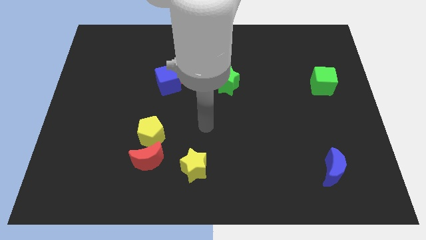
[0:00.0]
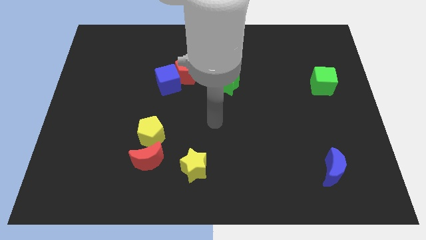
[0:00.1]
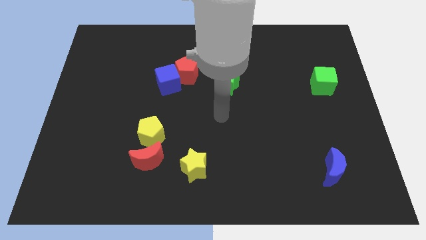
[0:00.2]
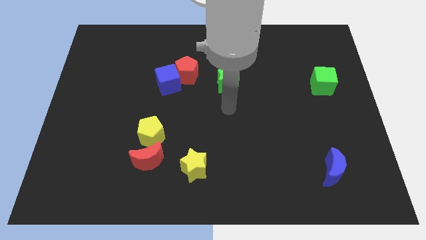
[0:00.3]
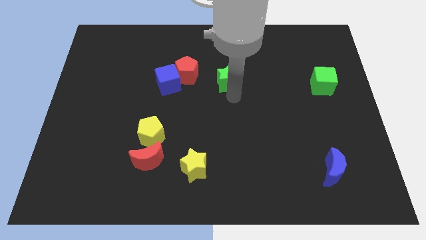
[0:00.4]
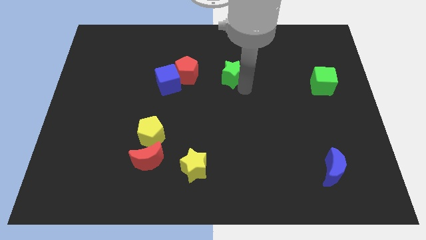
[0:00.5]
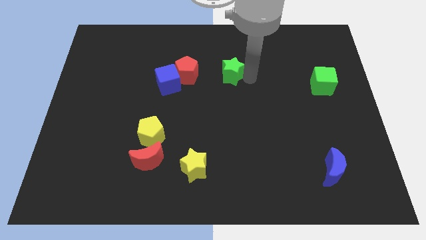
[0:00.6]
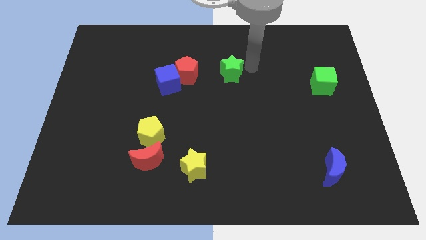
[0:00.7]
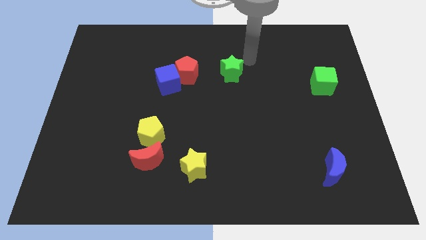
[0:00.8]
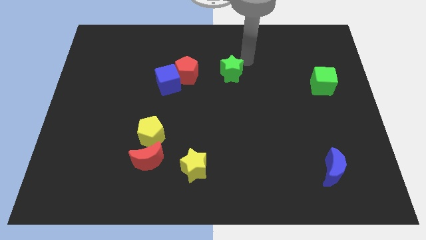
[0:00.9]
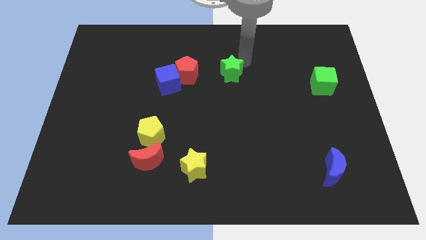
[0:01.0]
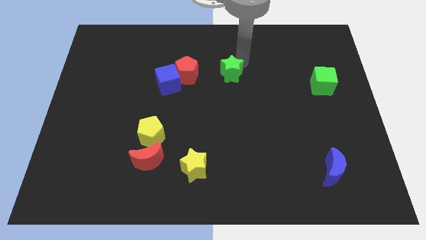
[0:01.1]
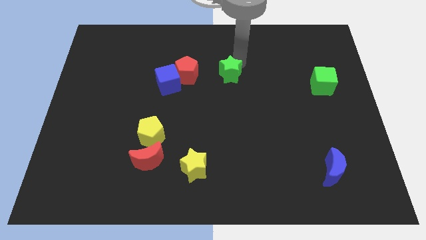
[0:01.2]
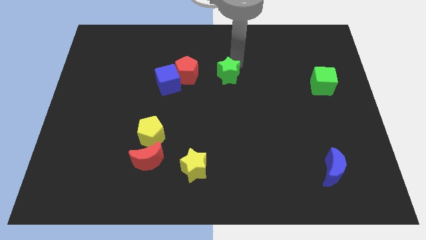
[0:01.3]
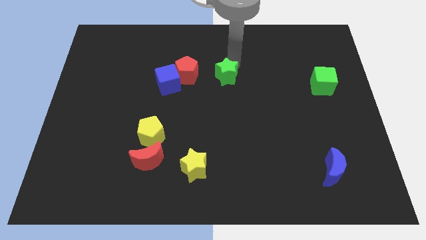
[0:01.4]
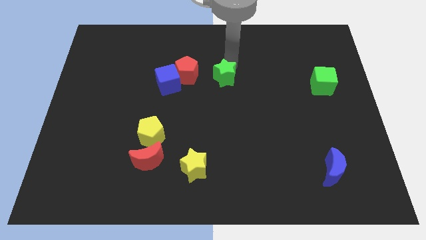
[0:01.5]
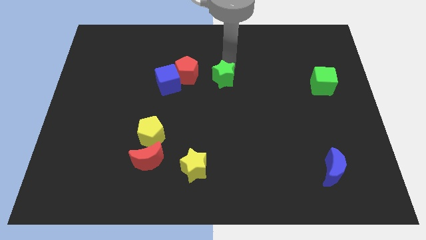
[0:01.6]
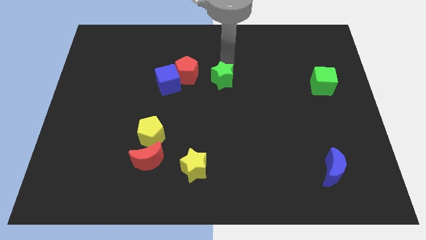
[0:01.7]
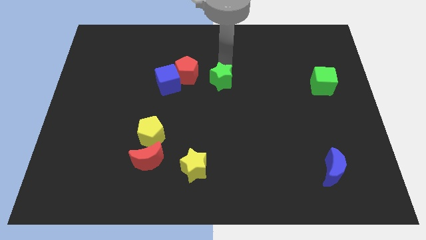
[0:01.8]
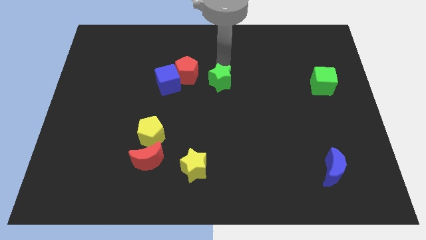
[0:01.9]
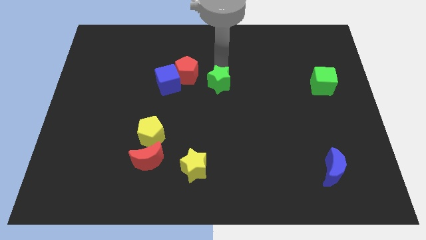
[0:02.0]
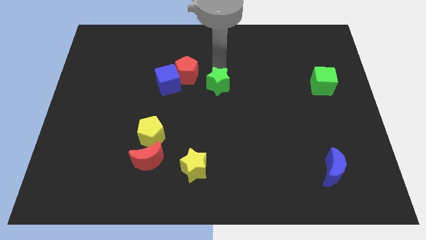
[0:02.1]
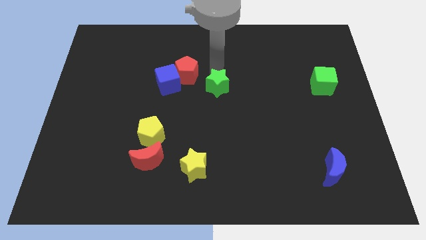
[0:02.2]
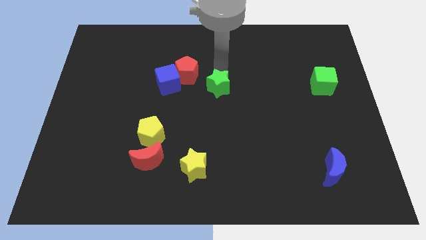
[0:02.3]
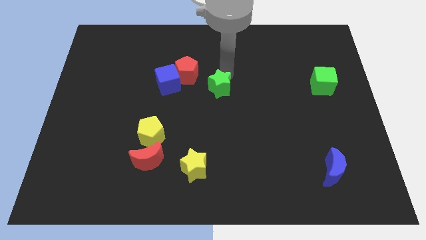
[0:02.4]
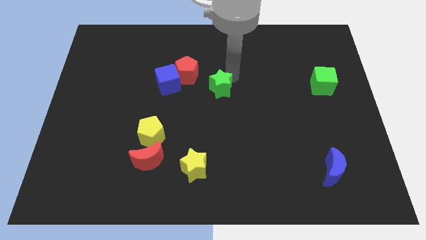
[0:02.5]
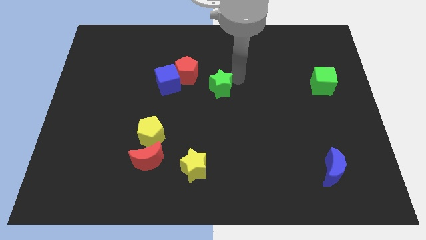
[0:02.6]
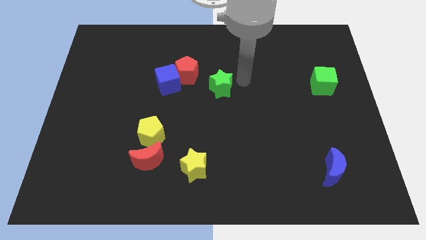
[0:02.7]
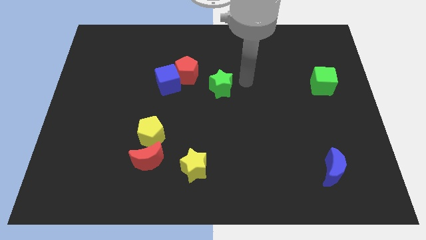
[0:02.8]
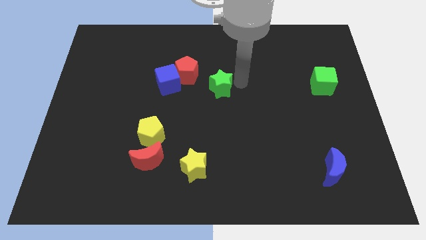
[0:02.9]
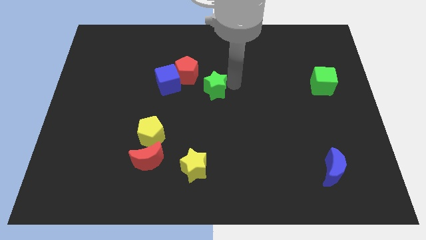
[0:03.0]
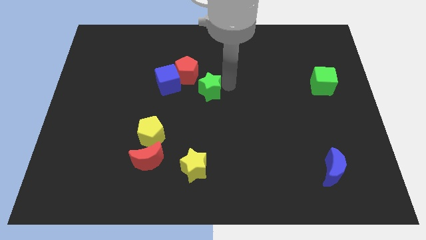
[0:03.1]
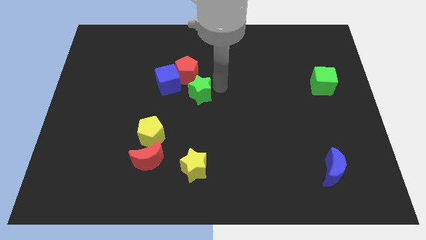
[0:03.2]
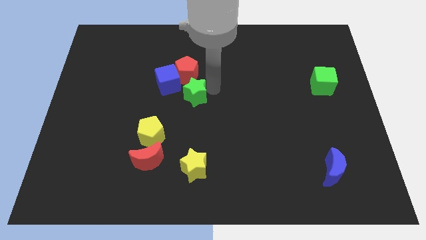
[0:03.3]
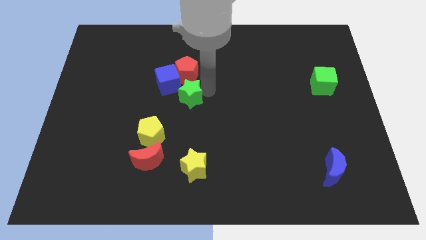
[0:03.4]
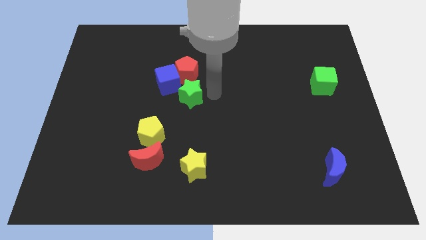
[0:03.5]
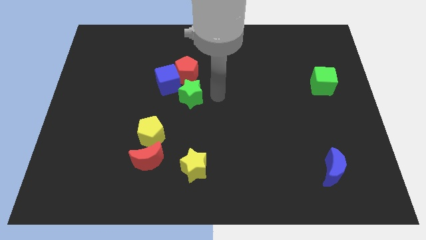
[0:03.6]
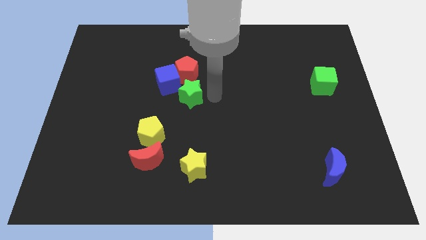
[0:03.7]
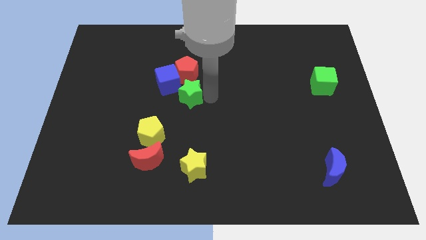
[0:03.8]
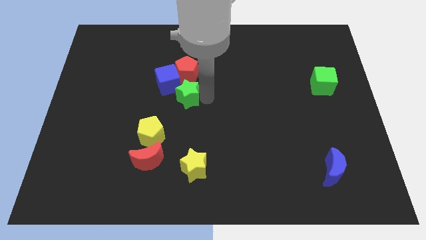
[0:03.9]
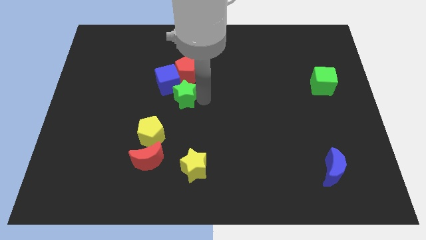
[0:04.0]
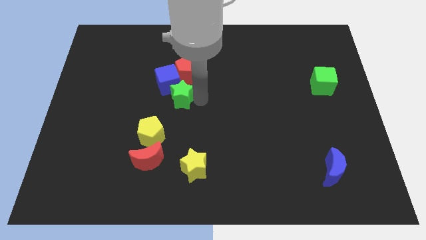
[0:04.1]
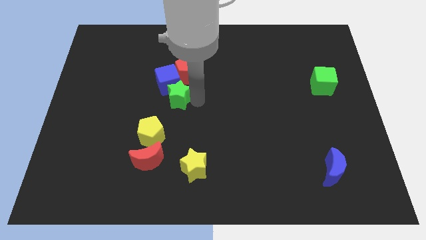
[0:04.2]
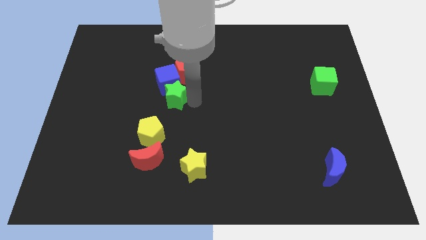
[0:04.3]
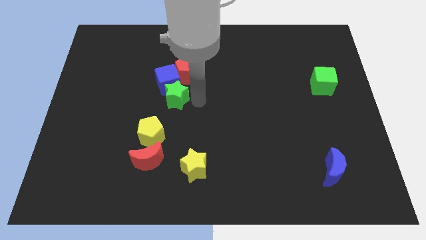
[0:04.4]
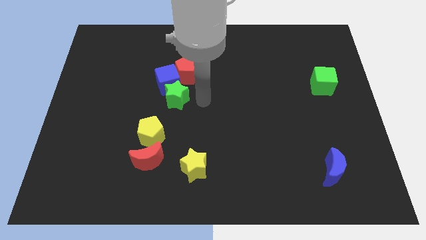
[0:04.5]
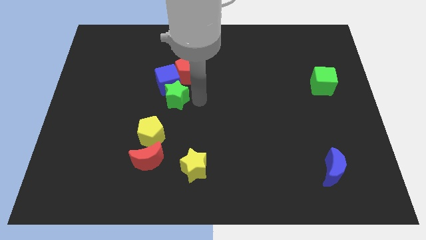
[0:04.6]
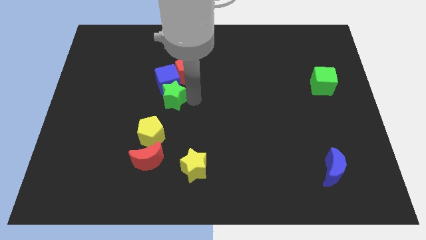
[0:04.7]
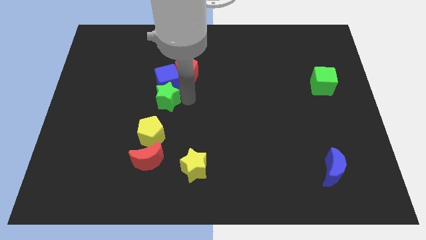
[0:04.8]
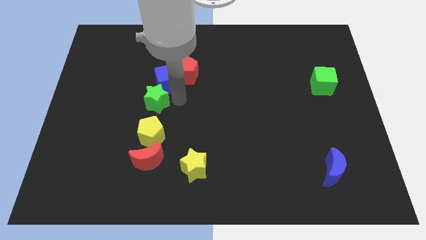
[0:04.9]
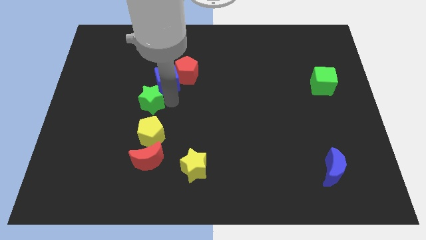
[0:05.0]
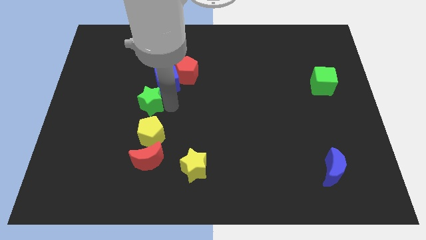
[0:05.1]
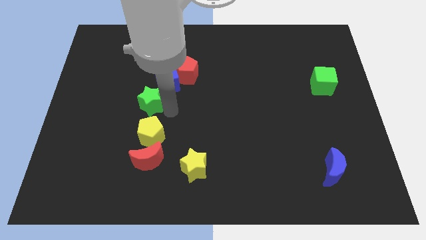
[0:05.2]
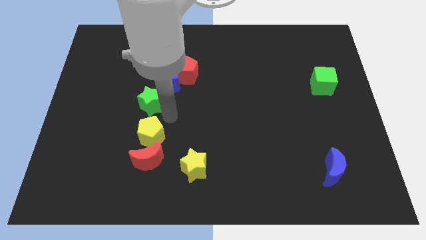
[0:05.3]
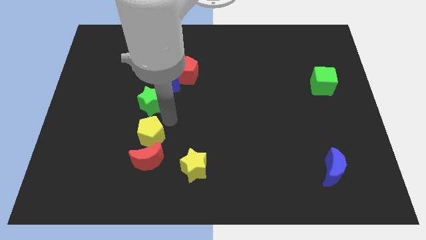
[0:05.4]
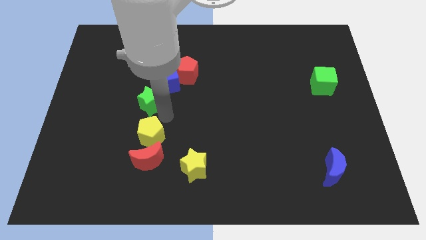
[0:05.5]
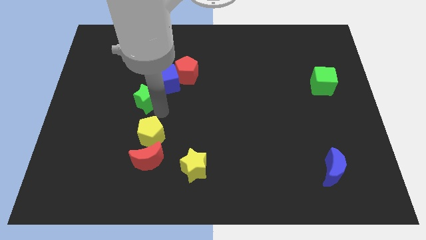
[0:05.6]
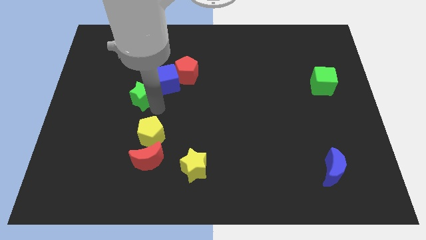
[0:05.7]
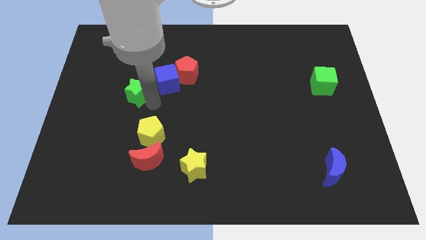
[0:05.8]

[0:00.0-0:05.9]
push the green star to the left

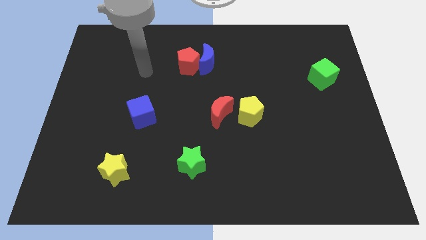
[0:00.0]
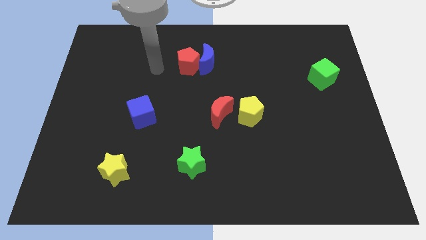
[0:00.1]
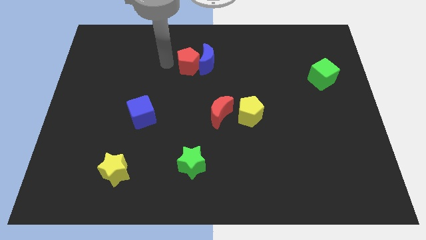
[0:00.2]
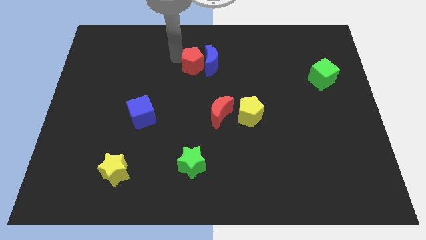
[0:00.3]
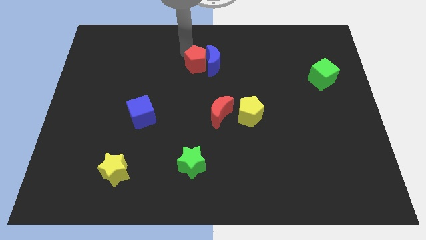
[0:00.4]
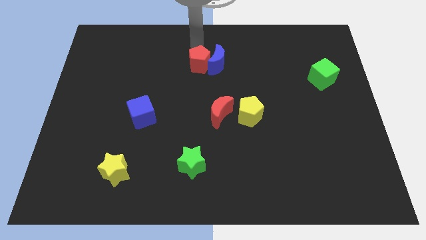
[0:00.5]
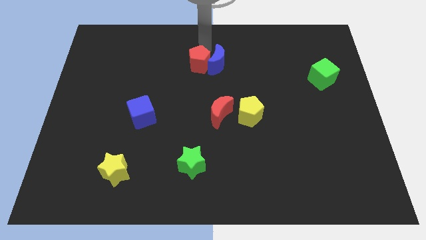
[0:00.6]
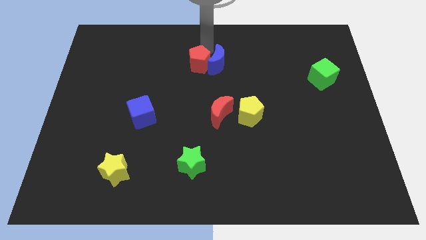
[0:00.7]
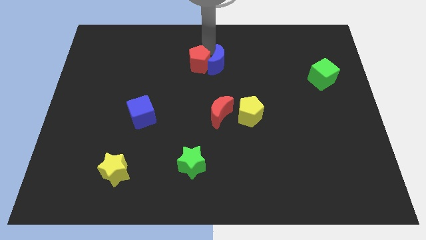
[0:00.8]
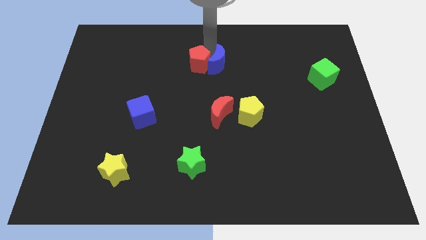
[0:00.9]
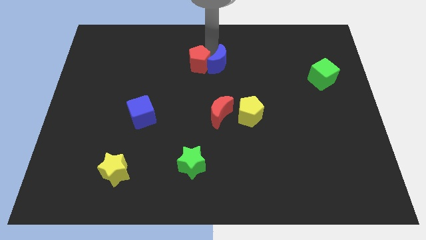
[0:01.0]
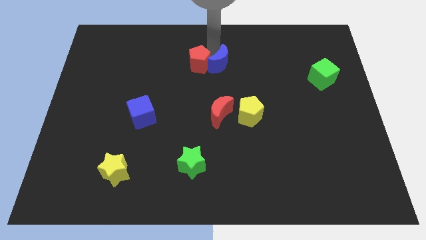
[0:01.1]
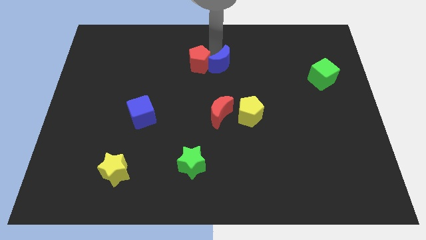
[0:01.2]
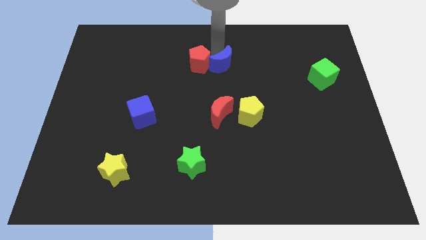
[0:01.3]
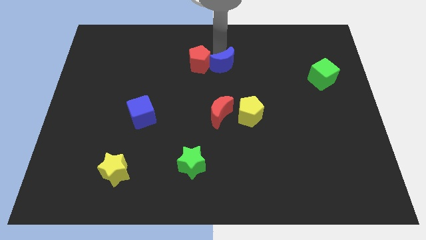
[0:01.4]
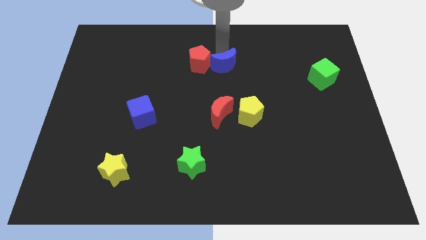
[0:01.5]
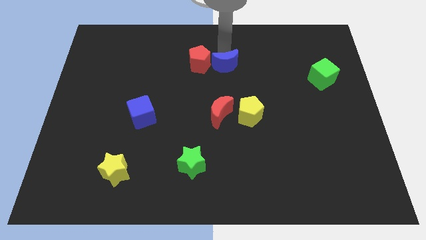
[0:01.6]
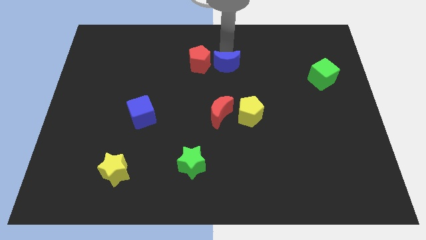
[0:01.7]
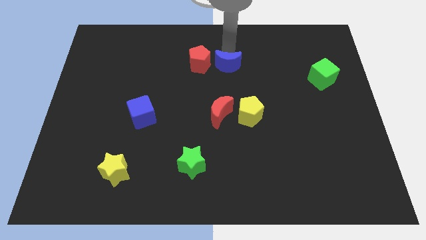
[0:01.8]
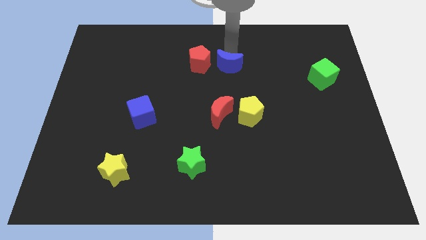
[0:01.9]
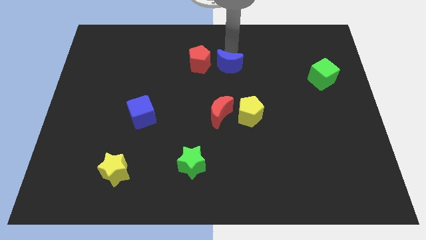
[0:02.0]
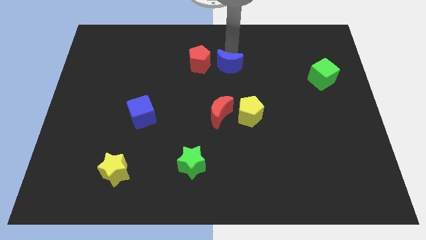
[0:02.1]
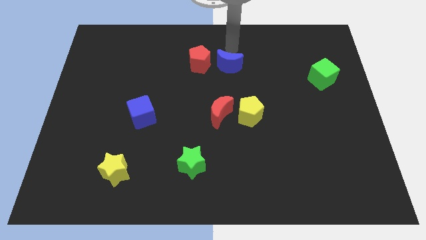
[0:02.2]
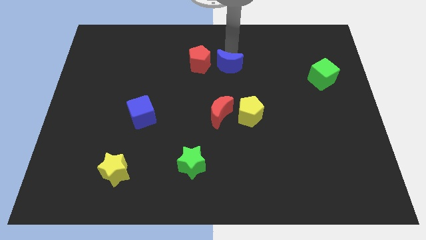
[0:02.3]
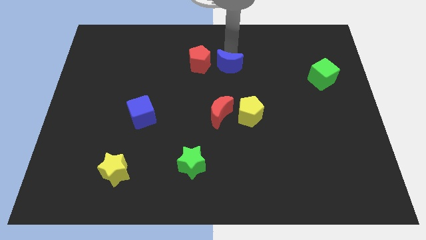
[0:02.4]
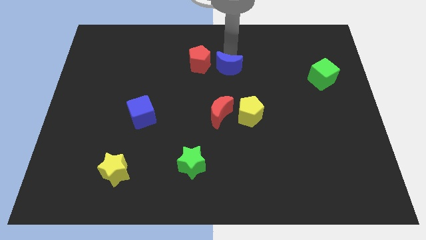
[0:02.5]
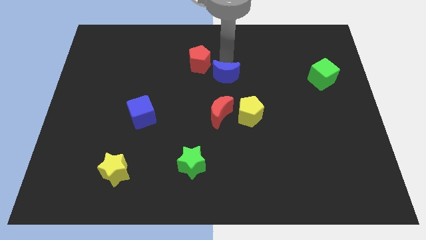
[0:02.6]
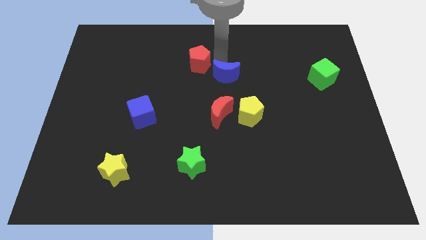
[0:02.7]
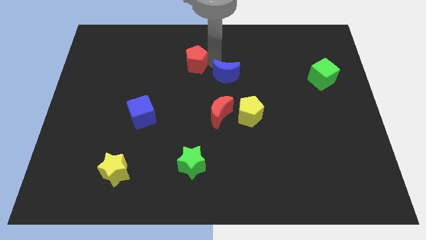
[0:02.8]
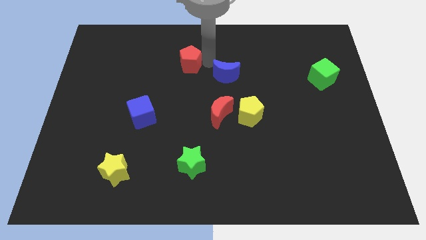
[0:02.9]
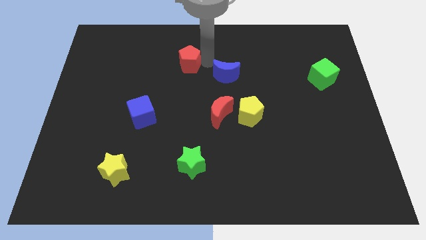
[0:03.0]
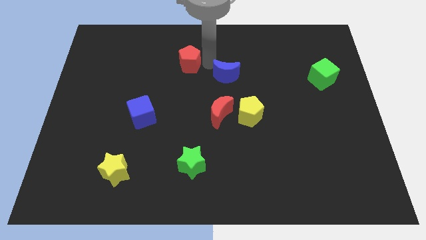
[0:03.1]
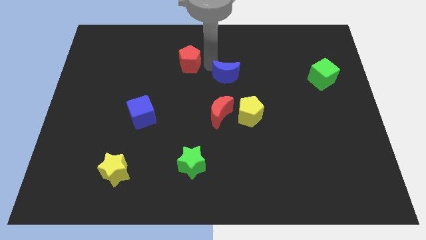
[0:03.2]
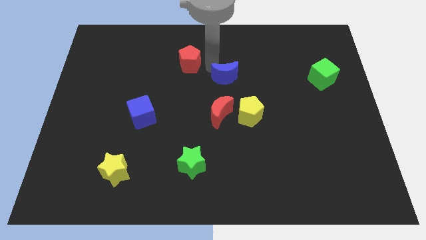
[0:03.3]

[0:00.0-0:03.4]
move the blue moon slightly downwards and right
